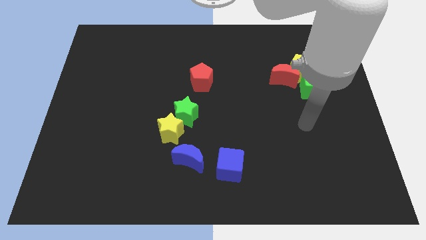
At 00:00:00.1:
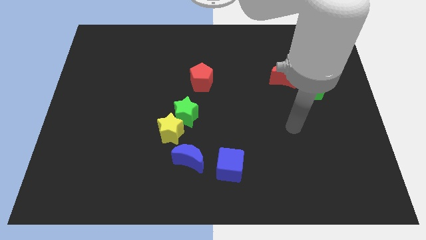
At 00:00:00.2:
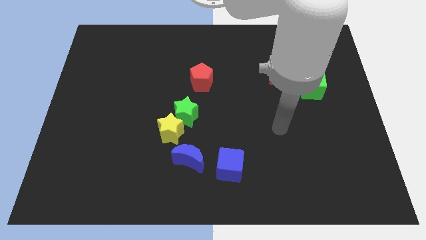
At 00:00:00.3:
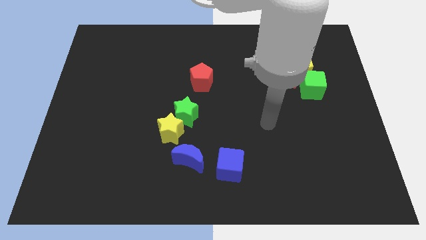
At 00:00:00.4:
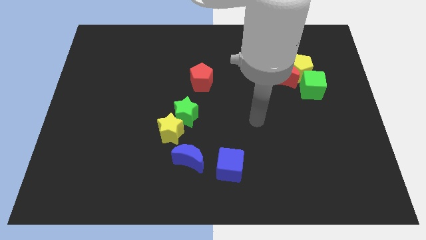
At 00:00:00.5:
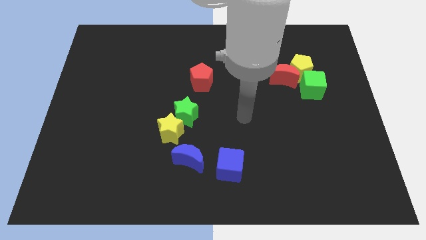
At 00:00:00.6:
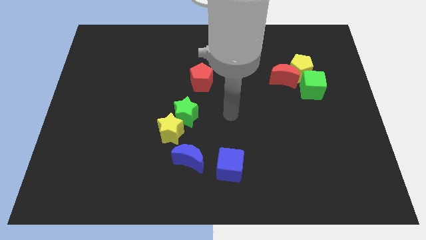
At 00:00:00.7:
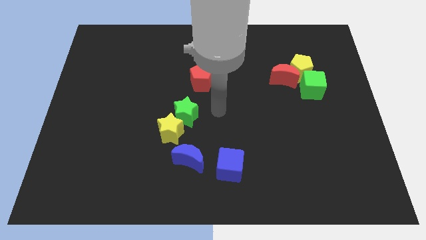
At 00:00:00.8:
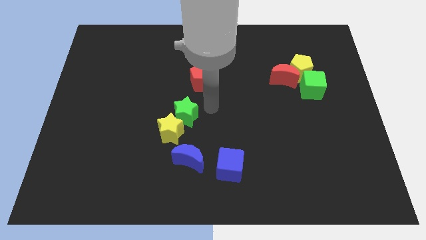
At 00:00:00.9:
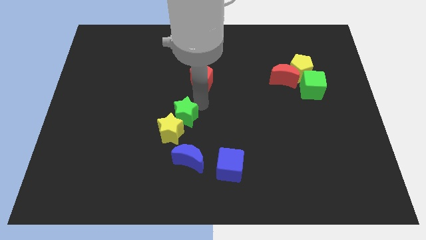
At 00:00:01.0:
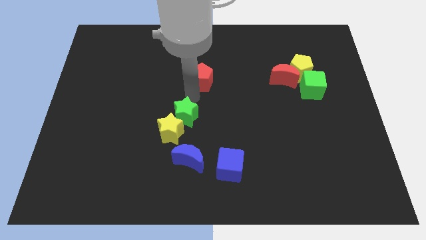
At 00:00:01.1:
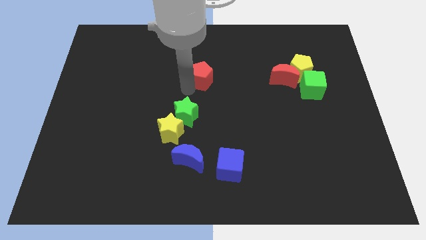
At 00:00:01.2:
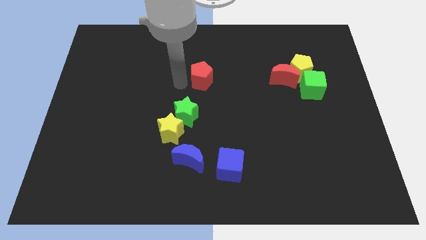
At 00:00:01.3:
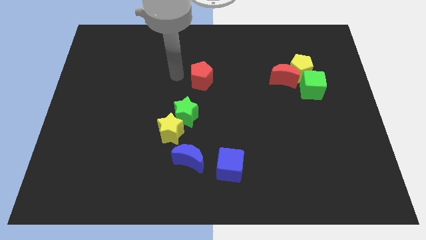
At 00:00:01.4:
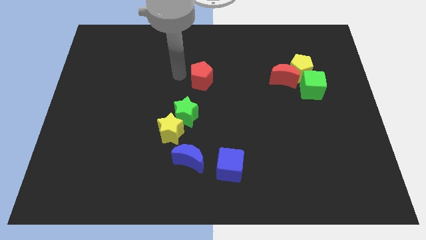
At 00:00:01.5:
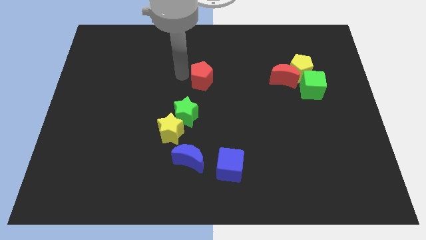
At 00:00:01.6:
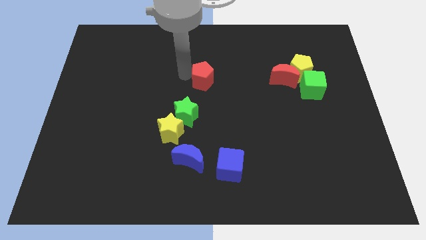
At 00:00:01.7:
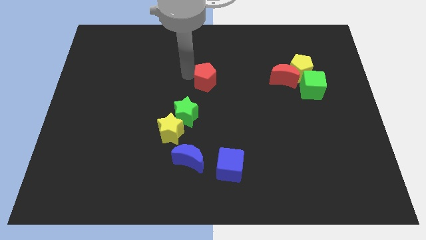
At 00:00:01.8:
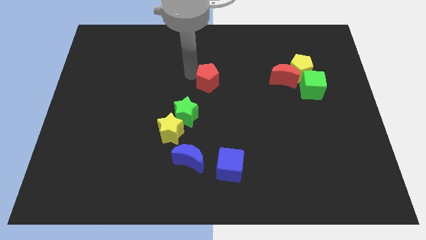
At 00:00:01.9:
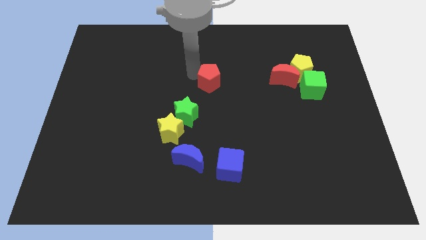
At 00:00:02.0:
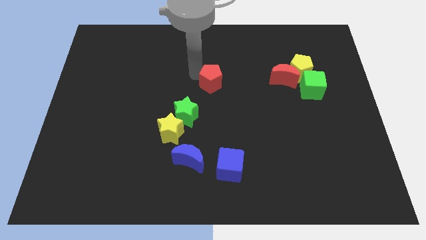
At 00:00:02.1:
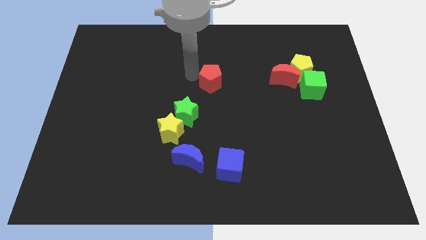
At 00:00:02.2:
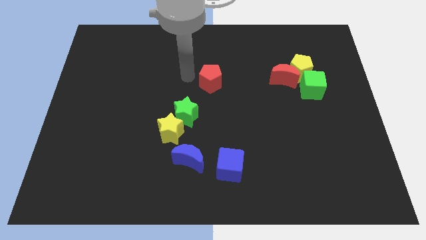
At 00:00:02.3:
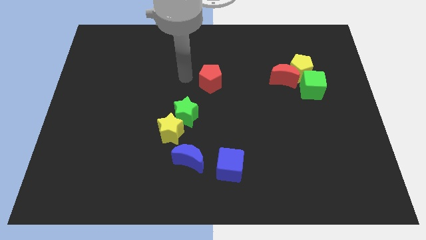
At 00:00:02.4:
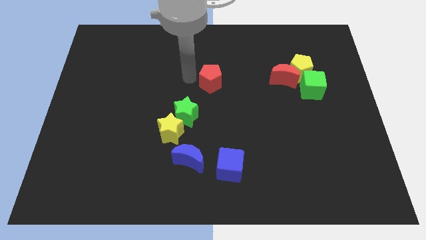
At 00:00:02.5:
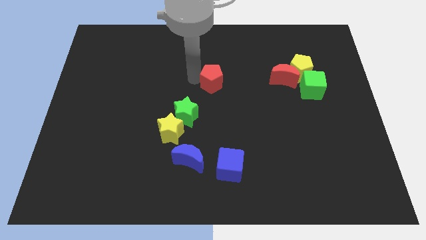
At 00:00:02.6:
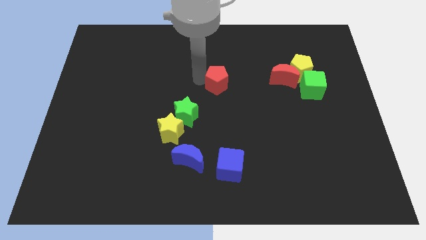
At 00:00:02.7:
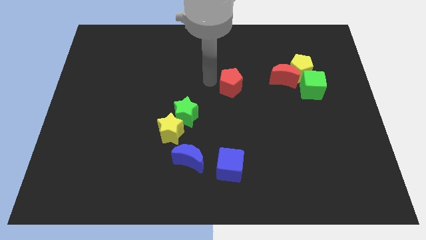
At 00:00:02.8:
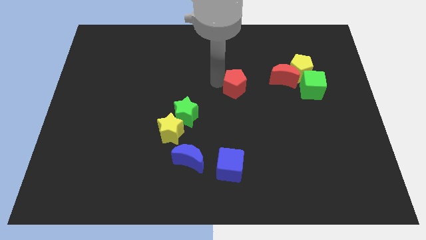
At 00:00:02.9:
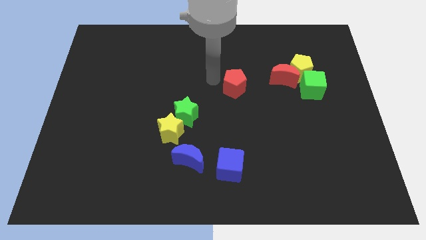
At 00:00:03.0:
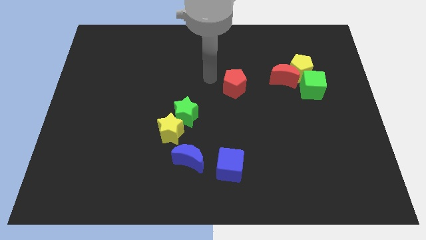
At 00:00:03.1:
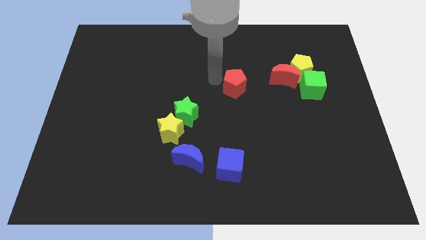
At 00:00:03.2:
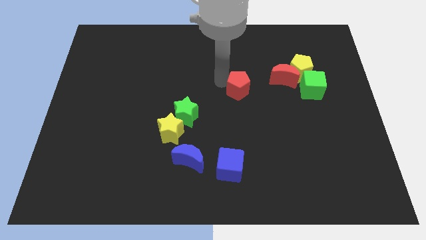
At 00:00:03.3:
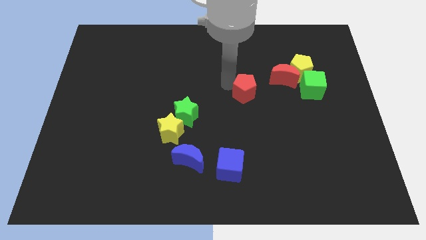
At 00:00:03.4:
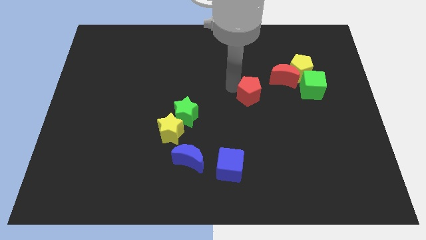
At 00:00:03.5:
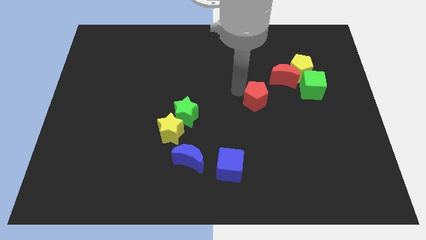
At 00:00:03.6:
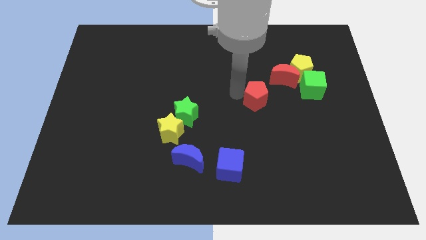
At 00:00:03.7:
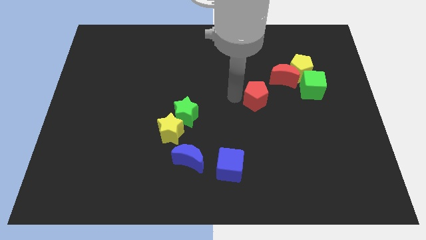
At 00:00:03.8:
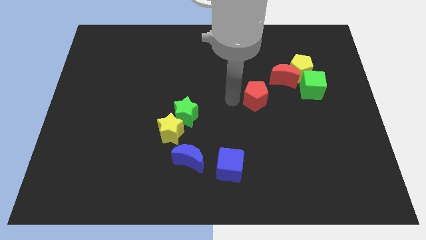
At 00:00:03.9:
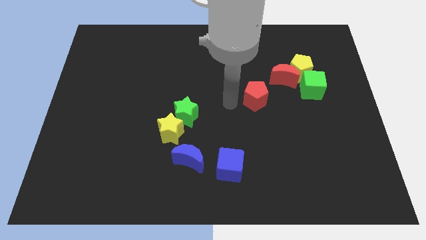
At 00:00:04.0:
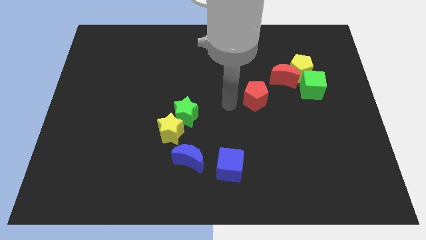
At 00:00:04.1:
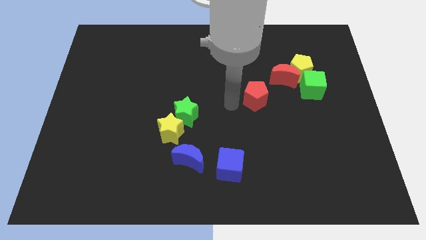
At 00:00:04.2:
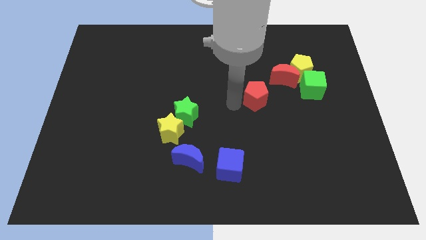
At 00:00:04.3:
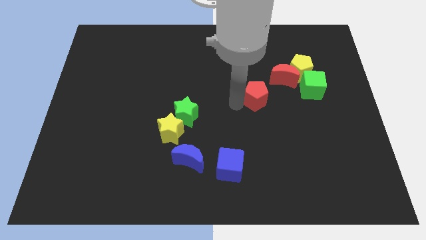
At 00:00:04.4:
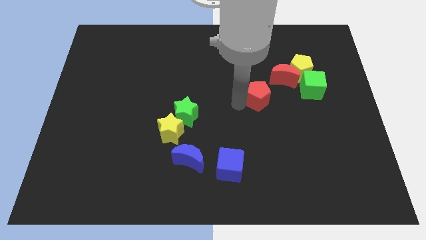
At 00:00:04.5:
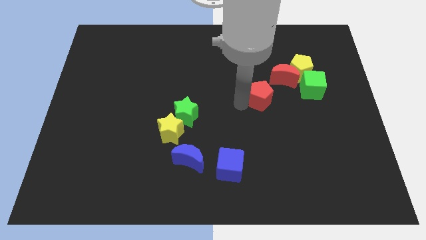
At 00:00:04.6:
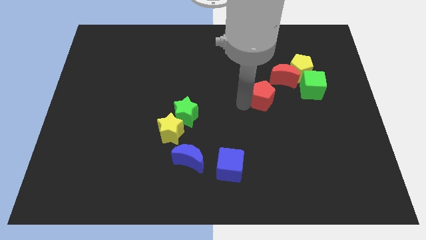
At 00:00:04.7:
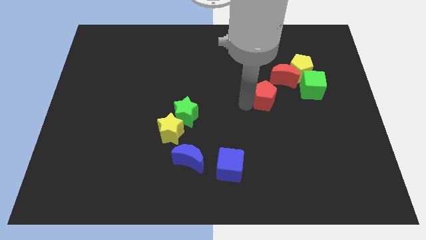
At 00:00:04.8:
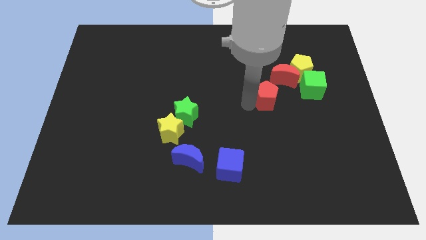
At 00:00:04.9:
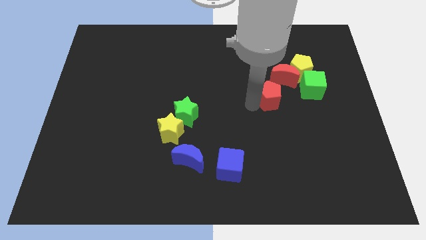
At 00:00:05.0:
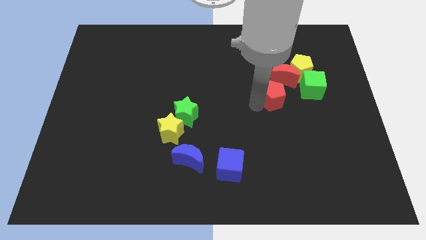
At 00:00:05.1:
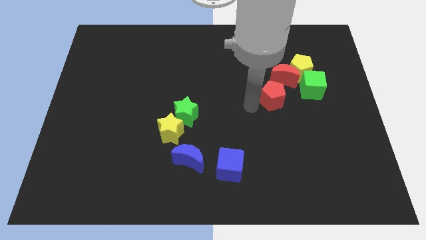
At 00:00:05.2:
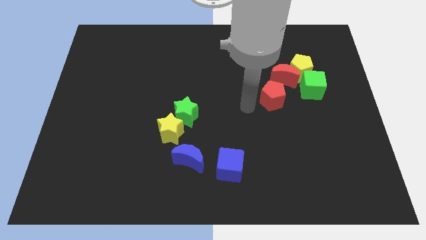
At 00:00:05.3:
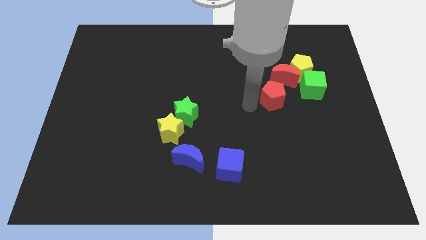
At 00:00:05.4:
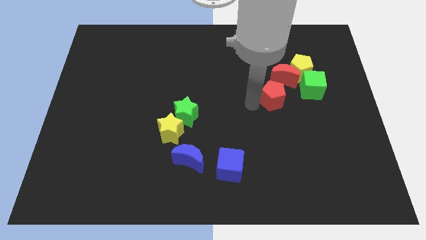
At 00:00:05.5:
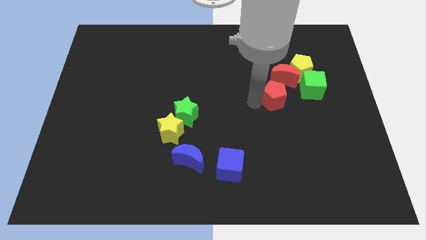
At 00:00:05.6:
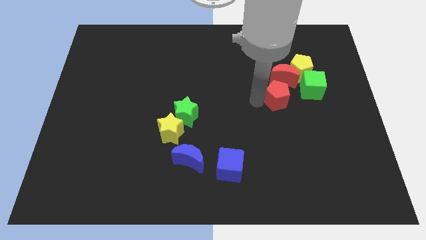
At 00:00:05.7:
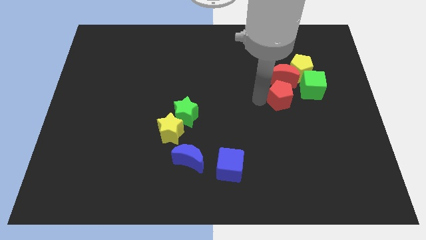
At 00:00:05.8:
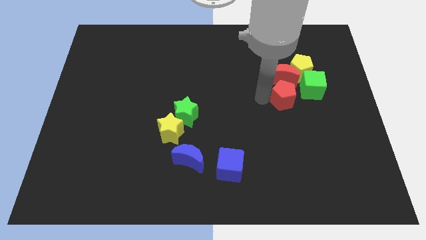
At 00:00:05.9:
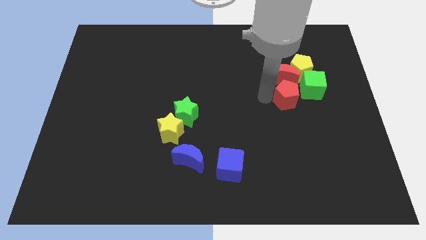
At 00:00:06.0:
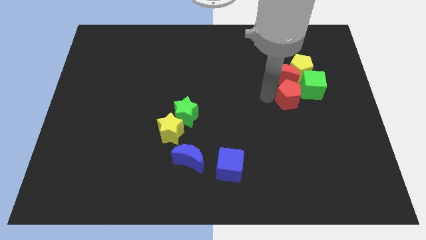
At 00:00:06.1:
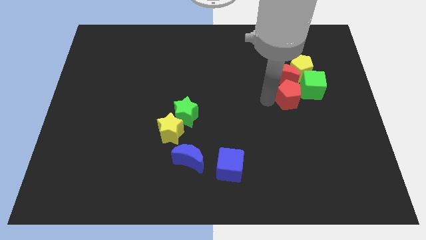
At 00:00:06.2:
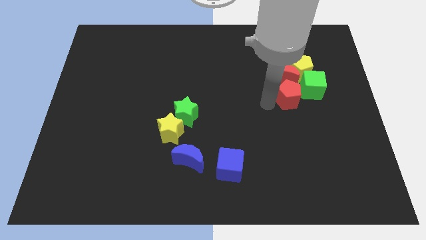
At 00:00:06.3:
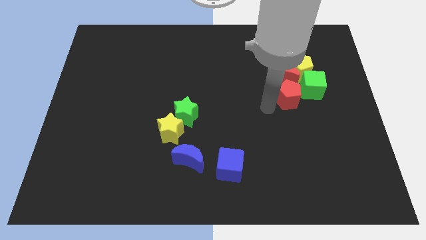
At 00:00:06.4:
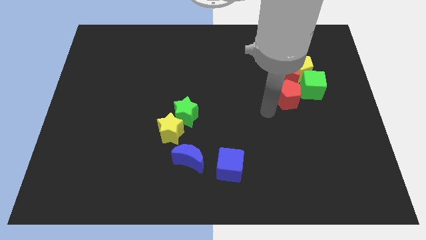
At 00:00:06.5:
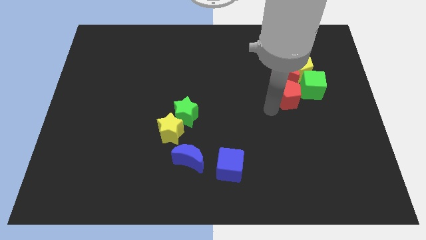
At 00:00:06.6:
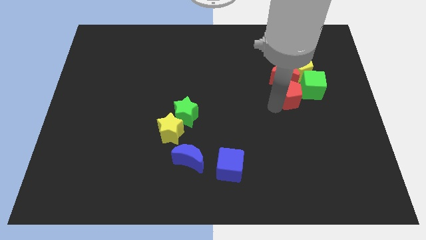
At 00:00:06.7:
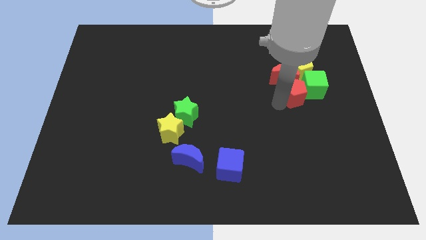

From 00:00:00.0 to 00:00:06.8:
move the red pentagon close to the green cube
